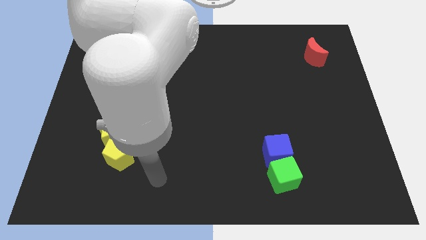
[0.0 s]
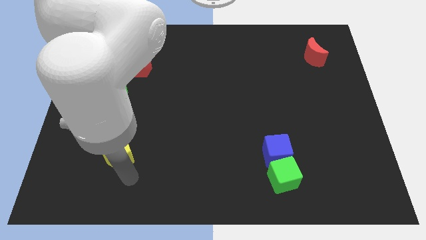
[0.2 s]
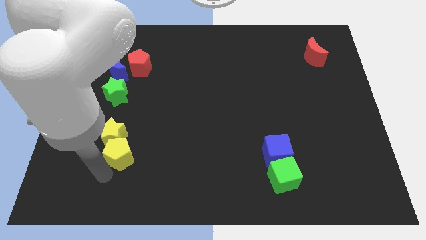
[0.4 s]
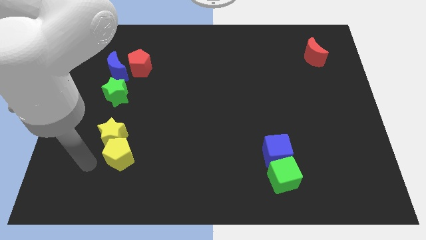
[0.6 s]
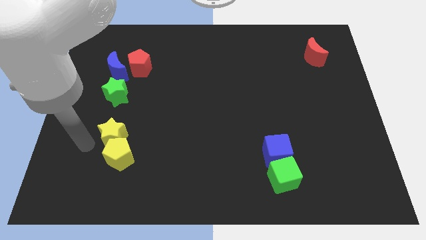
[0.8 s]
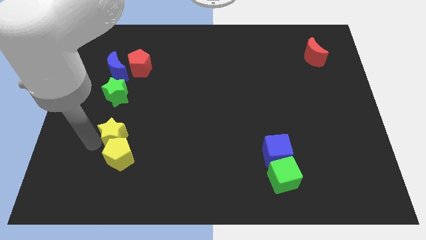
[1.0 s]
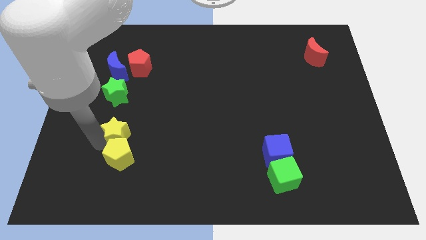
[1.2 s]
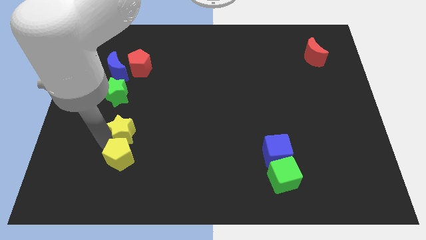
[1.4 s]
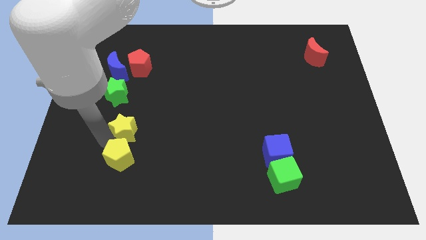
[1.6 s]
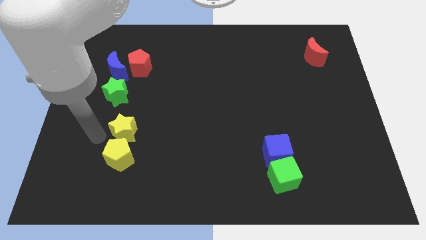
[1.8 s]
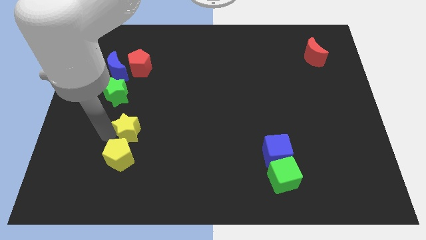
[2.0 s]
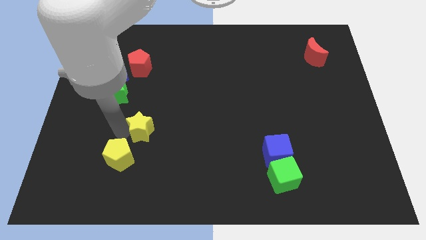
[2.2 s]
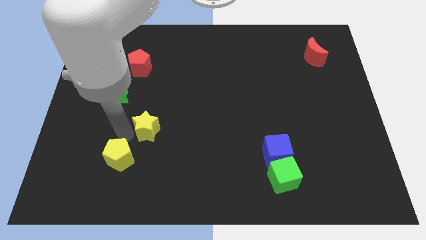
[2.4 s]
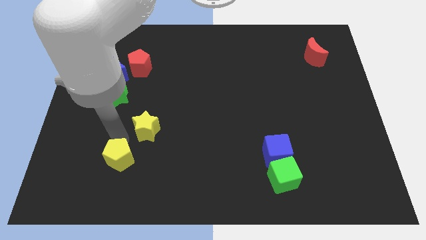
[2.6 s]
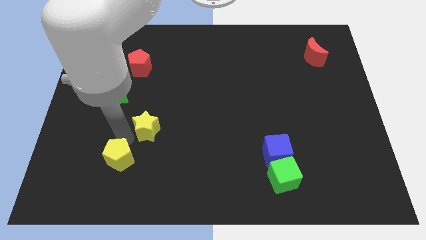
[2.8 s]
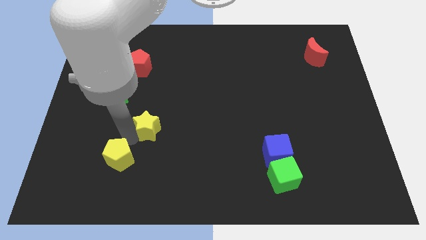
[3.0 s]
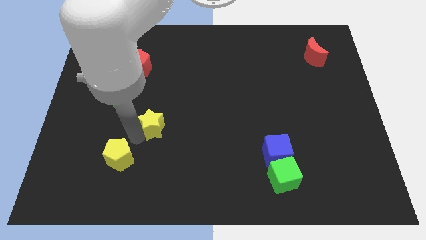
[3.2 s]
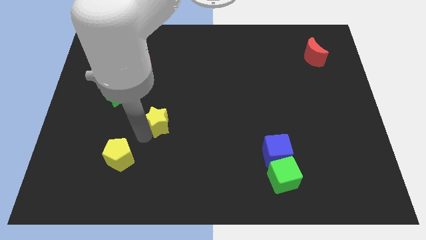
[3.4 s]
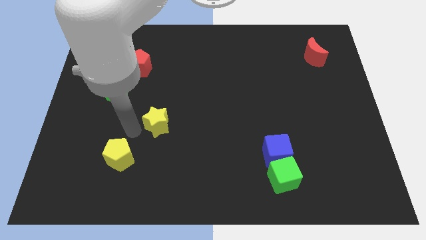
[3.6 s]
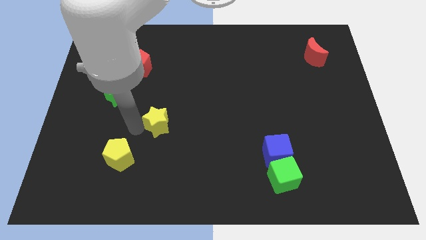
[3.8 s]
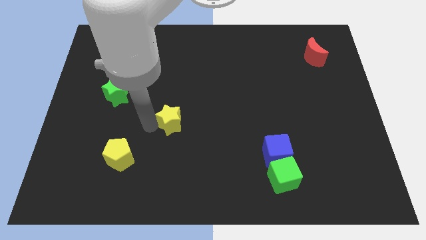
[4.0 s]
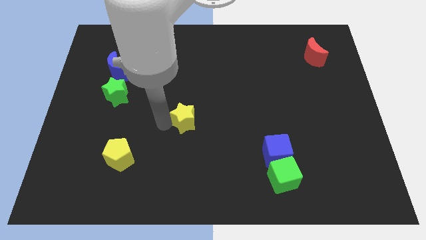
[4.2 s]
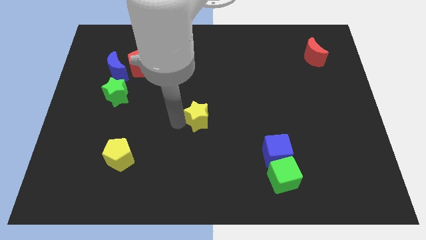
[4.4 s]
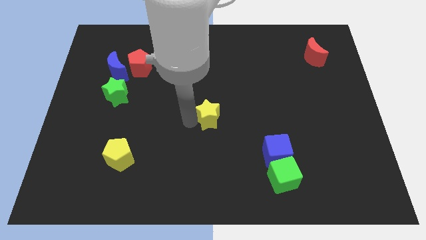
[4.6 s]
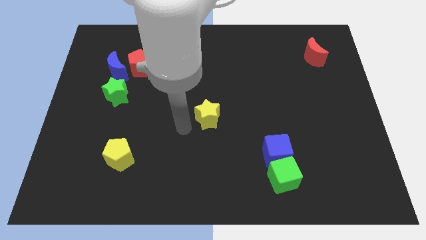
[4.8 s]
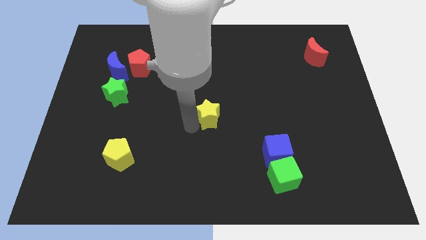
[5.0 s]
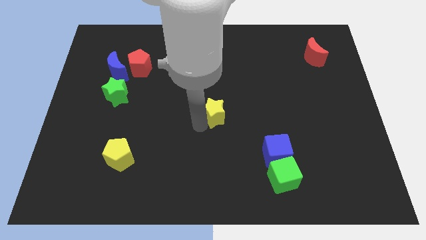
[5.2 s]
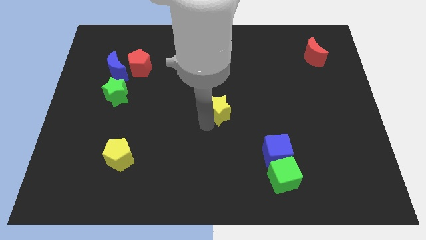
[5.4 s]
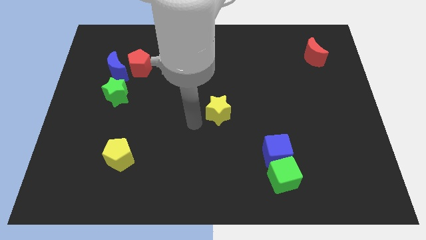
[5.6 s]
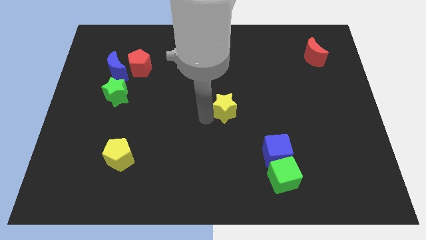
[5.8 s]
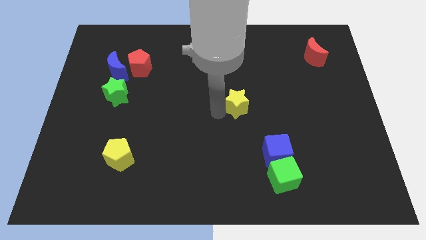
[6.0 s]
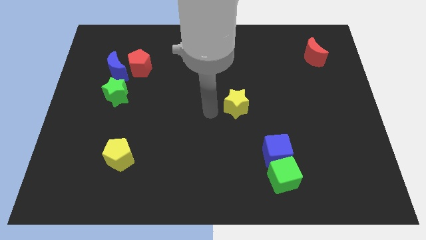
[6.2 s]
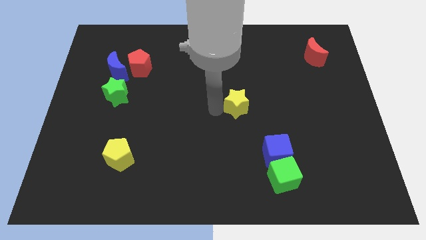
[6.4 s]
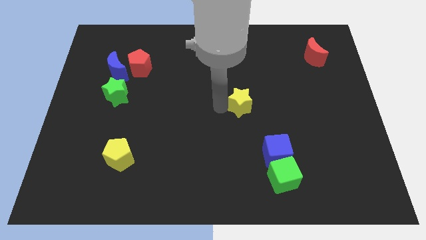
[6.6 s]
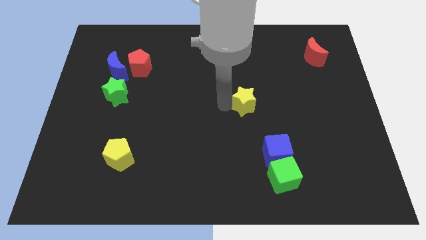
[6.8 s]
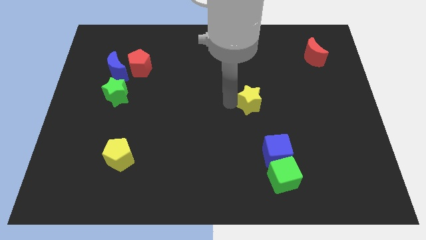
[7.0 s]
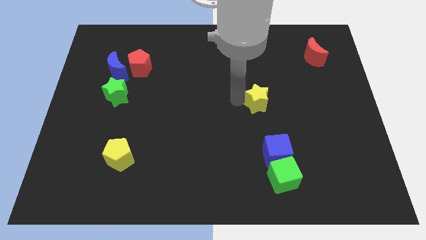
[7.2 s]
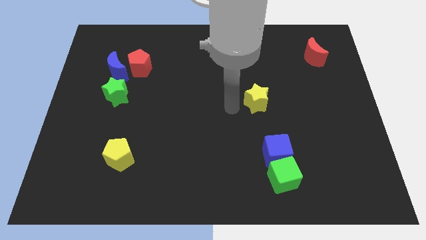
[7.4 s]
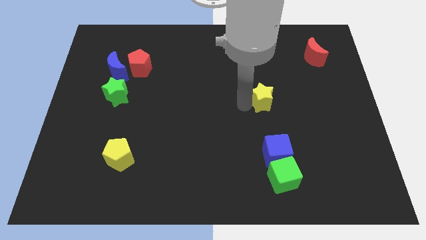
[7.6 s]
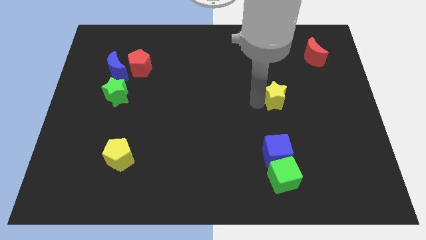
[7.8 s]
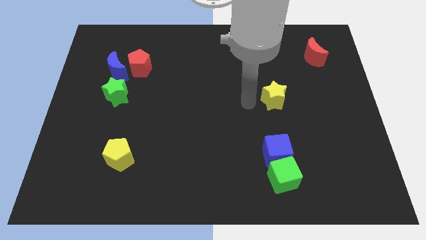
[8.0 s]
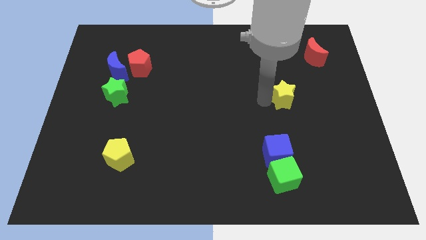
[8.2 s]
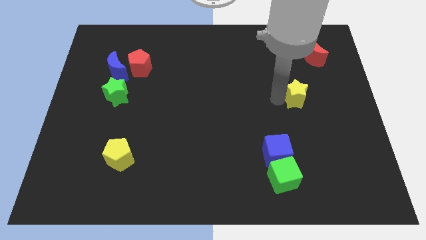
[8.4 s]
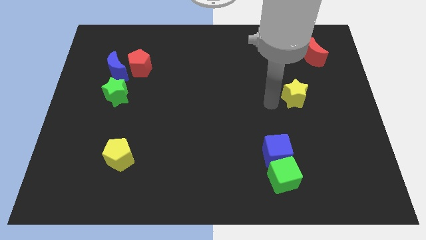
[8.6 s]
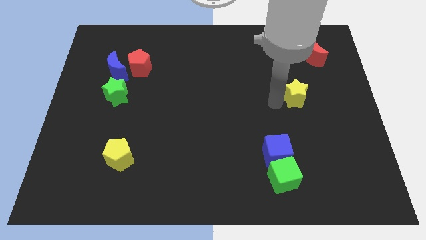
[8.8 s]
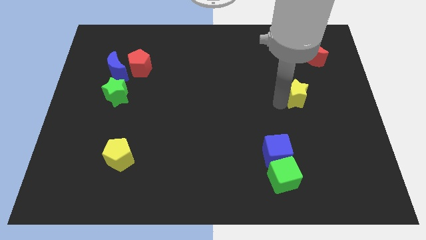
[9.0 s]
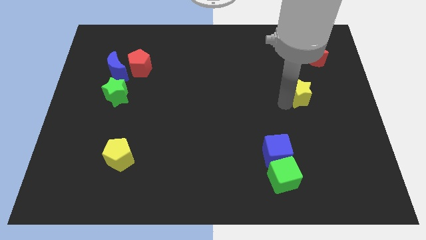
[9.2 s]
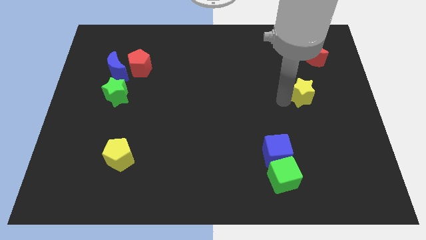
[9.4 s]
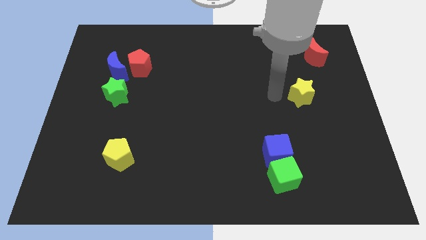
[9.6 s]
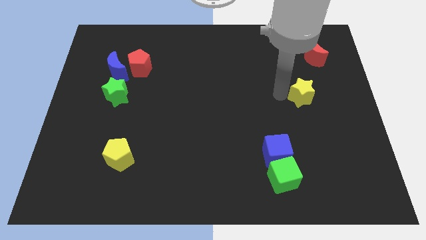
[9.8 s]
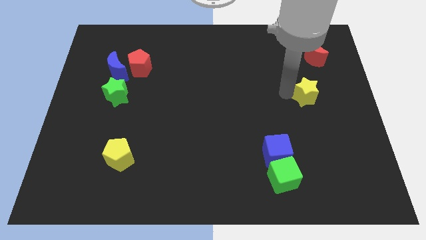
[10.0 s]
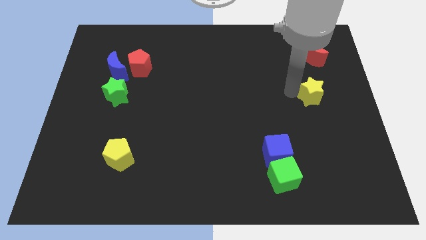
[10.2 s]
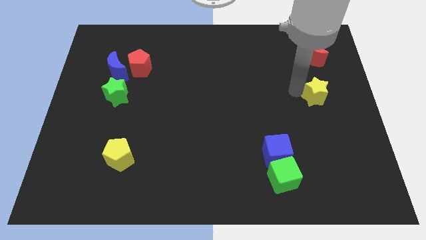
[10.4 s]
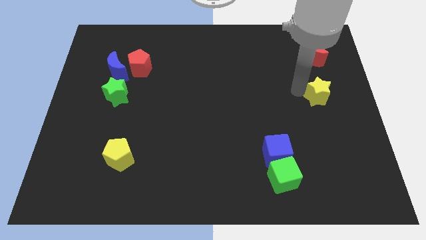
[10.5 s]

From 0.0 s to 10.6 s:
move the yellow star to the right side of the board

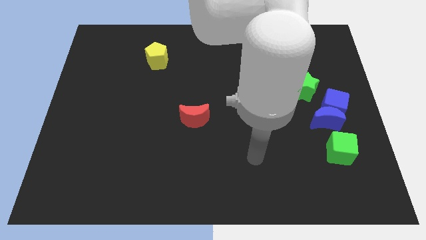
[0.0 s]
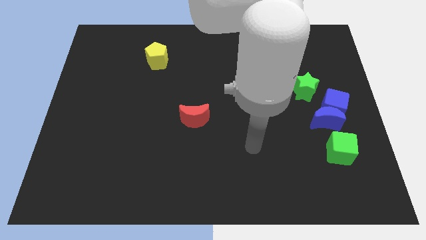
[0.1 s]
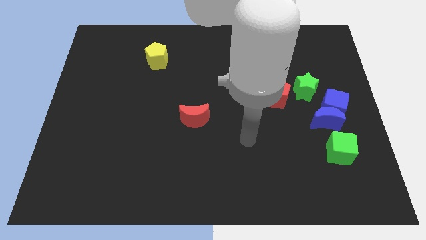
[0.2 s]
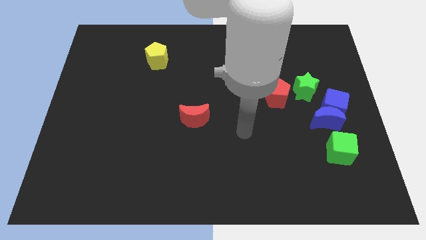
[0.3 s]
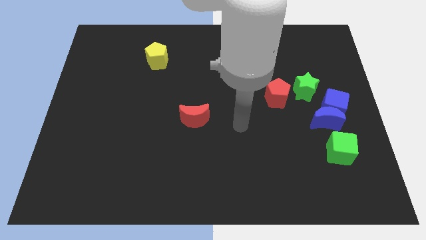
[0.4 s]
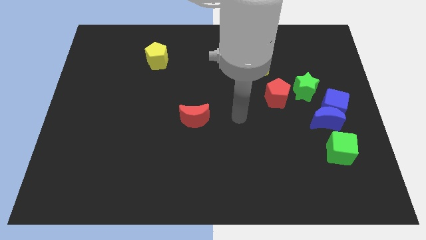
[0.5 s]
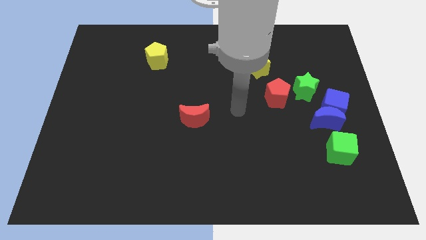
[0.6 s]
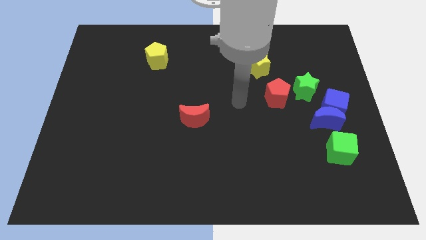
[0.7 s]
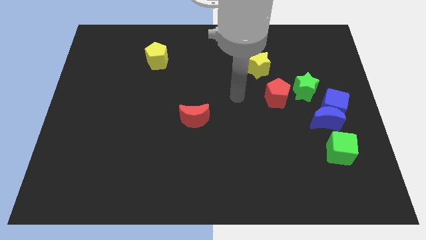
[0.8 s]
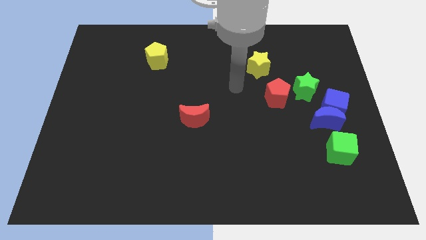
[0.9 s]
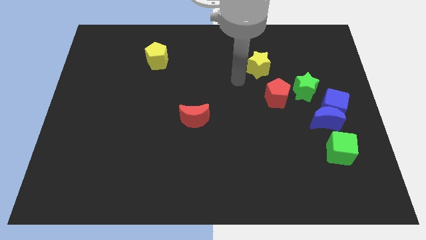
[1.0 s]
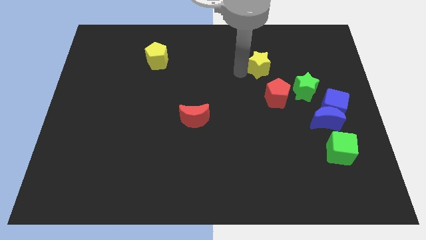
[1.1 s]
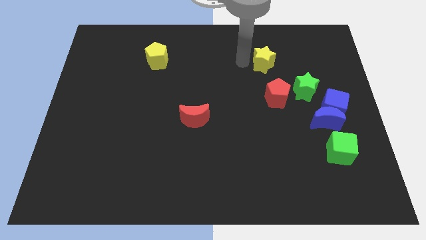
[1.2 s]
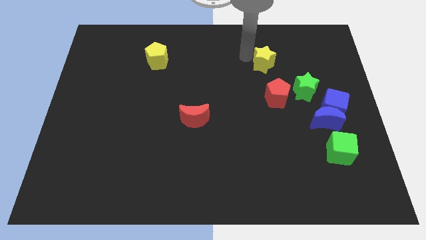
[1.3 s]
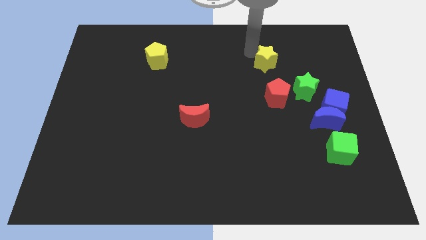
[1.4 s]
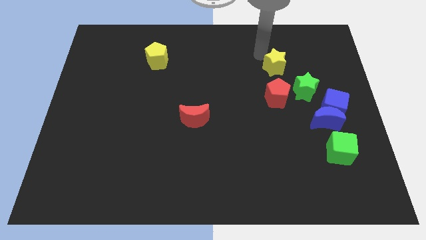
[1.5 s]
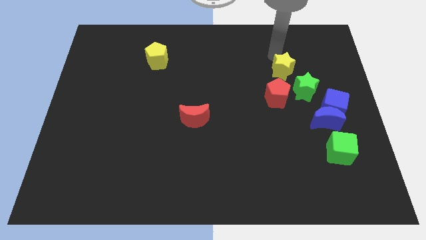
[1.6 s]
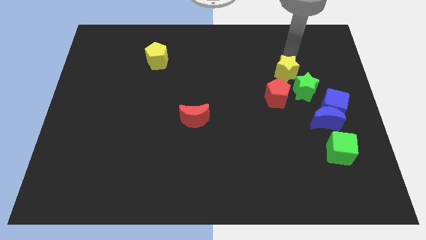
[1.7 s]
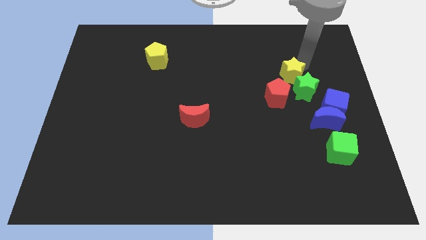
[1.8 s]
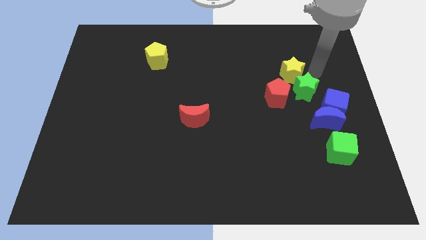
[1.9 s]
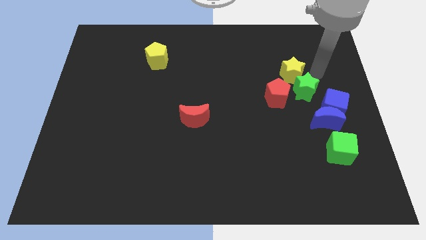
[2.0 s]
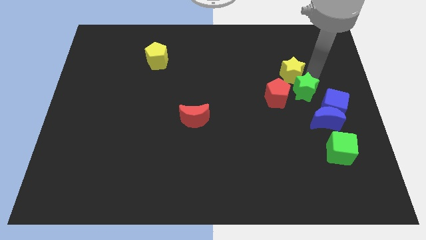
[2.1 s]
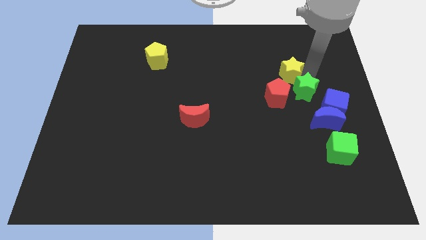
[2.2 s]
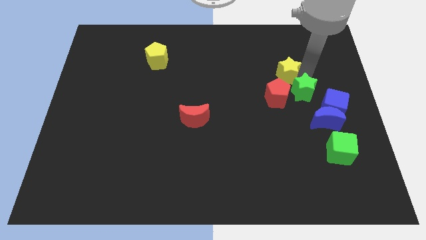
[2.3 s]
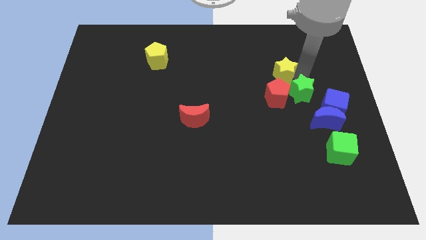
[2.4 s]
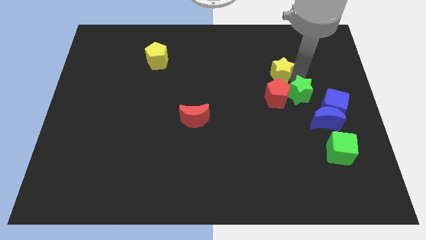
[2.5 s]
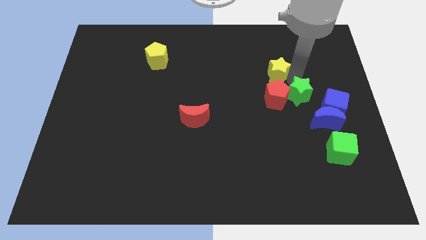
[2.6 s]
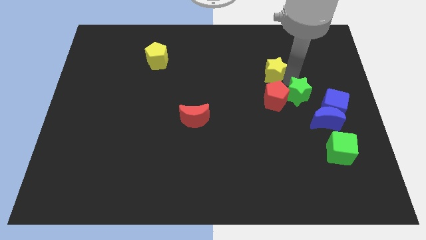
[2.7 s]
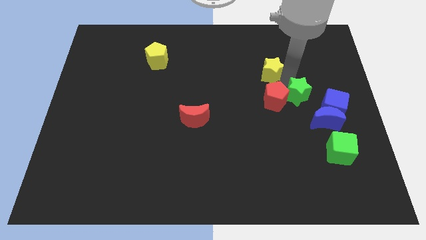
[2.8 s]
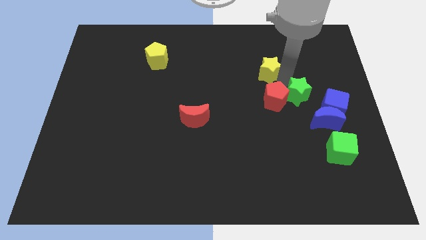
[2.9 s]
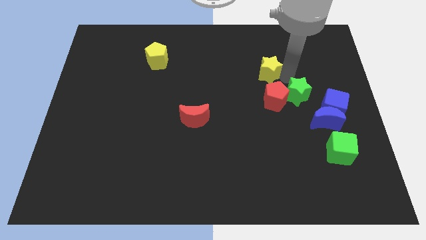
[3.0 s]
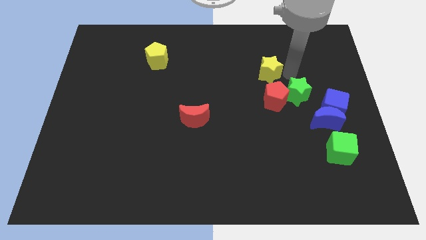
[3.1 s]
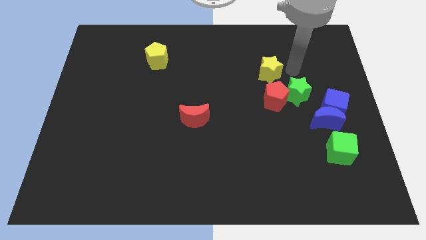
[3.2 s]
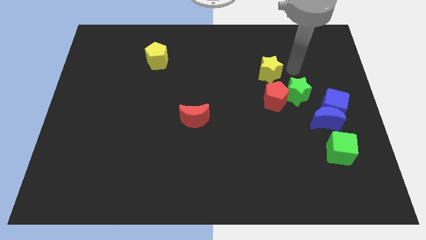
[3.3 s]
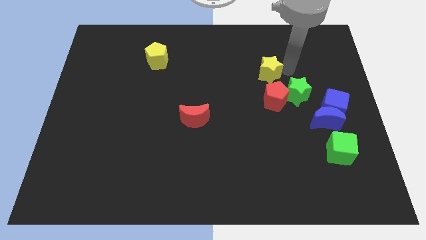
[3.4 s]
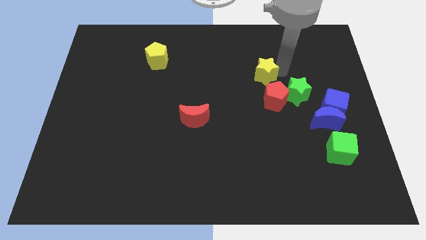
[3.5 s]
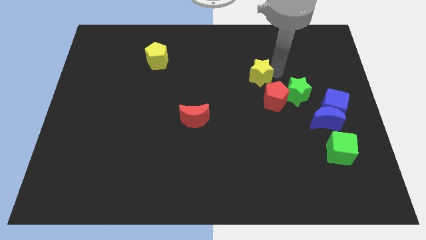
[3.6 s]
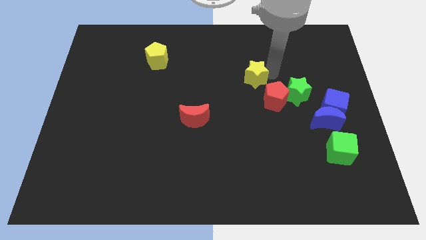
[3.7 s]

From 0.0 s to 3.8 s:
move the yellow star to the middle
